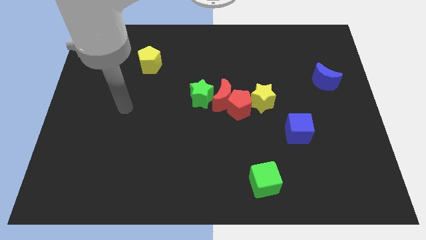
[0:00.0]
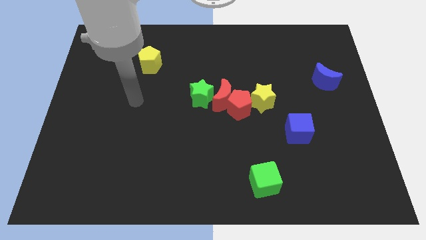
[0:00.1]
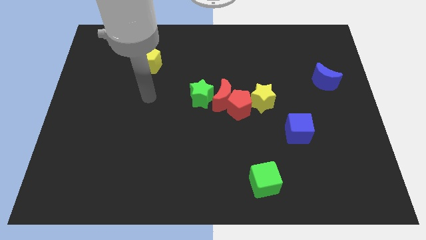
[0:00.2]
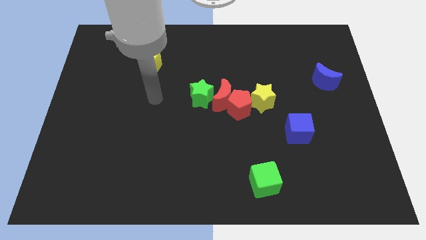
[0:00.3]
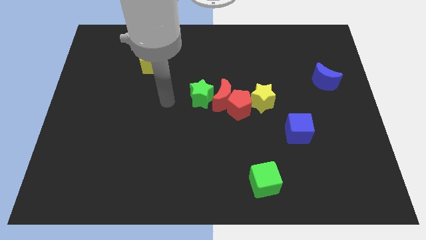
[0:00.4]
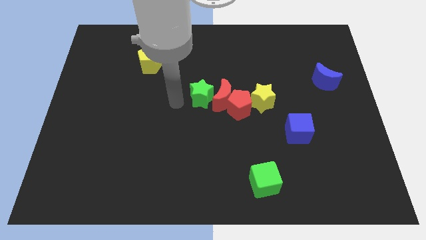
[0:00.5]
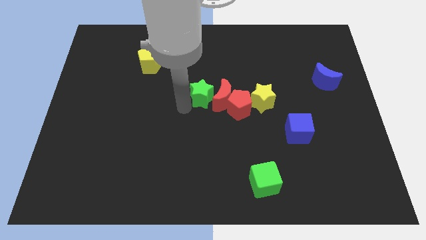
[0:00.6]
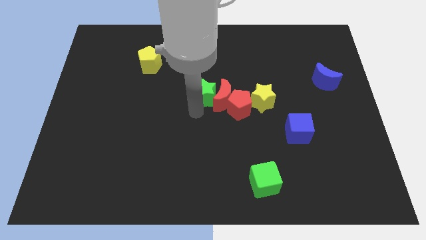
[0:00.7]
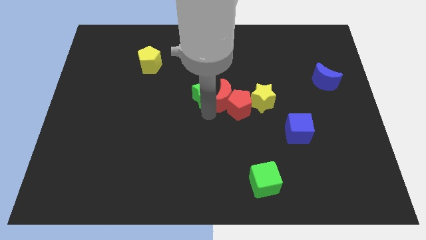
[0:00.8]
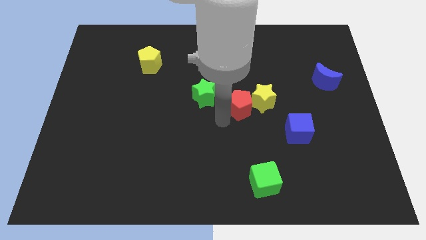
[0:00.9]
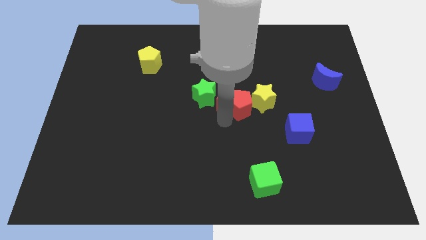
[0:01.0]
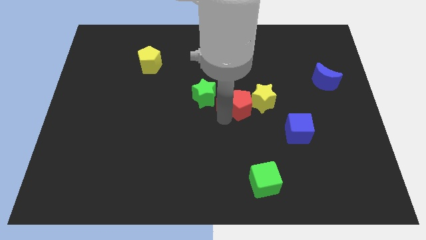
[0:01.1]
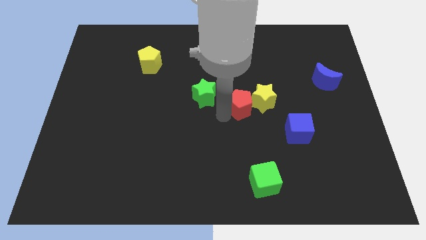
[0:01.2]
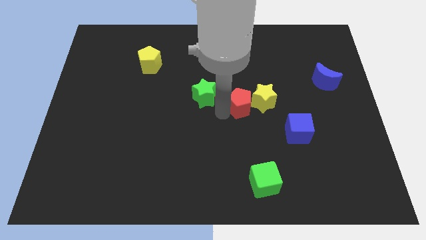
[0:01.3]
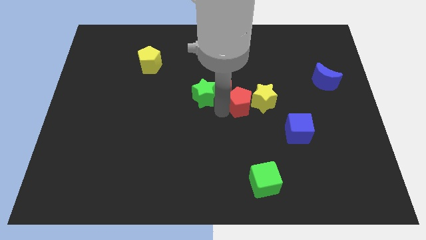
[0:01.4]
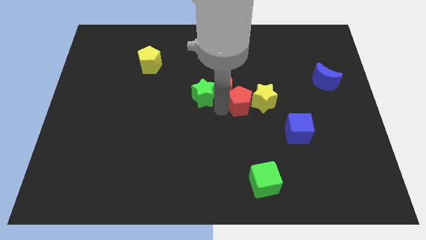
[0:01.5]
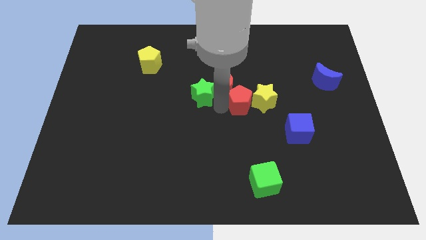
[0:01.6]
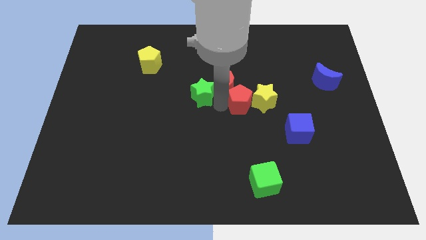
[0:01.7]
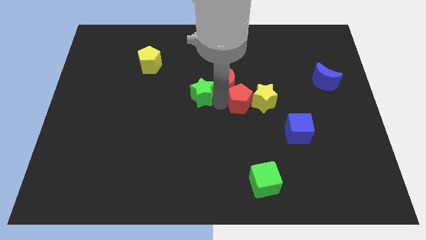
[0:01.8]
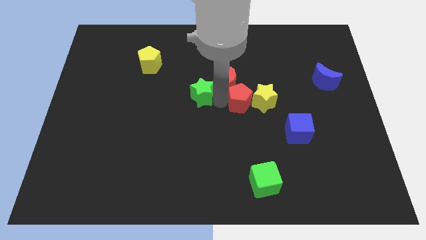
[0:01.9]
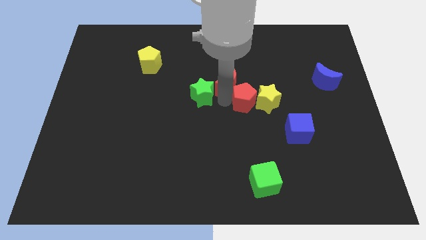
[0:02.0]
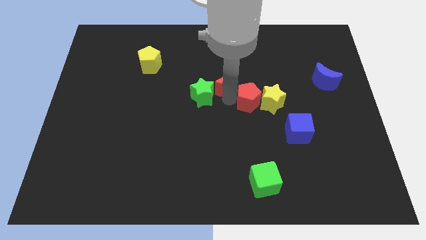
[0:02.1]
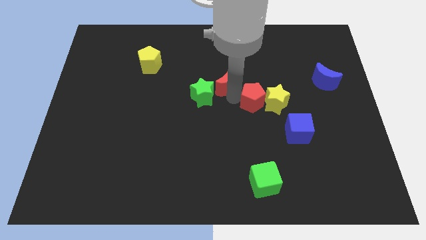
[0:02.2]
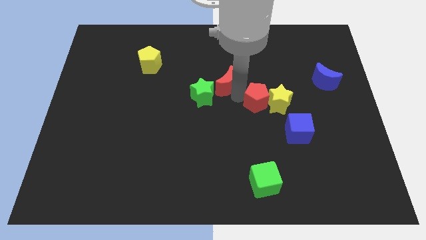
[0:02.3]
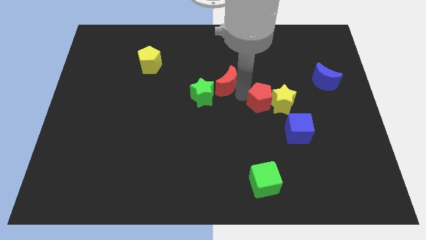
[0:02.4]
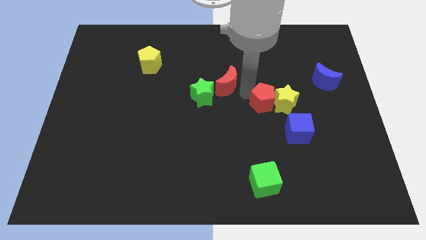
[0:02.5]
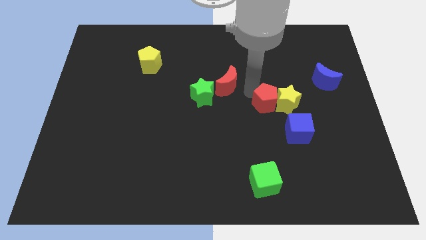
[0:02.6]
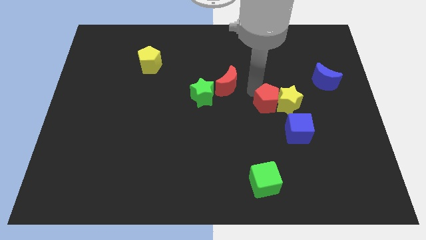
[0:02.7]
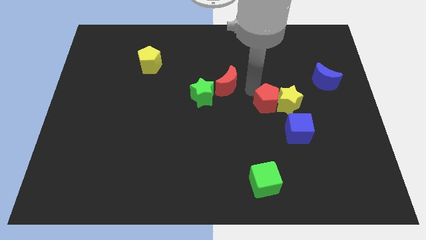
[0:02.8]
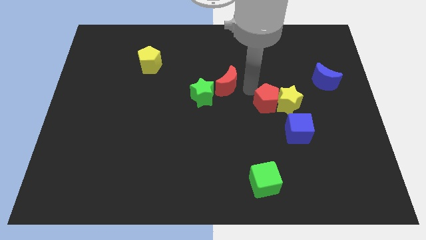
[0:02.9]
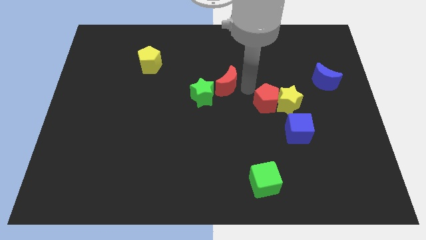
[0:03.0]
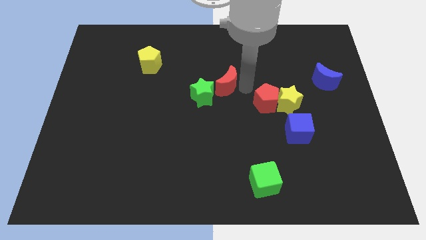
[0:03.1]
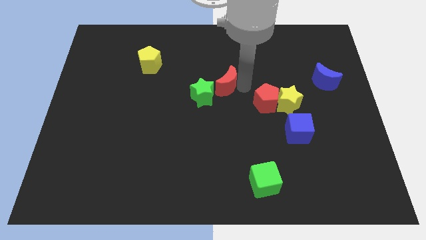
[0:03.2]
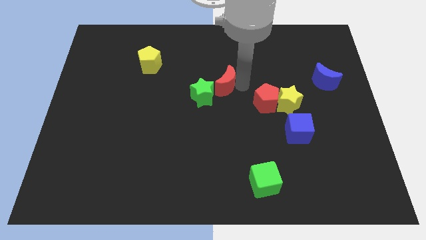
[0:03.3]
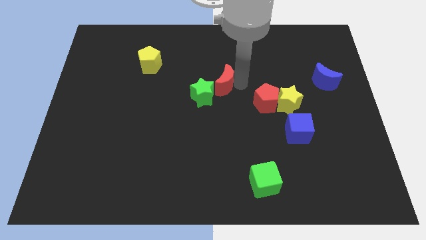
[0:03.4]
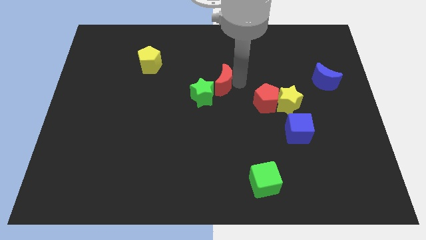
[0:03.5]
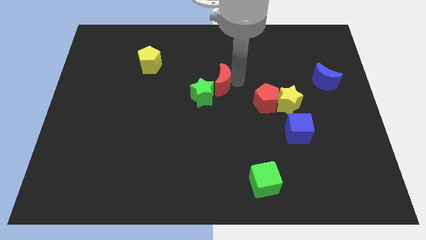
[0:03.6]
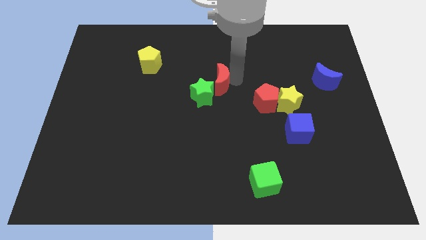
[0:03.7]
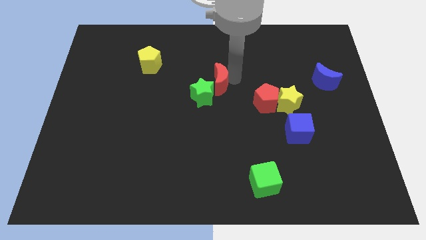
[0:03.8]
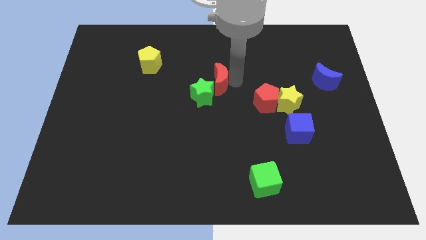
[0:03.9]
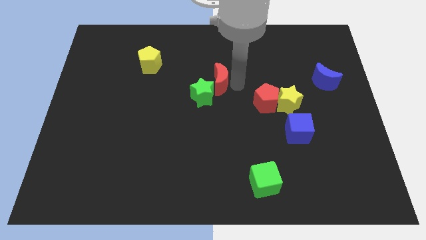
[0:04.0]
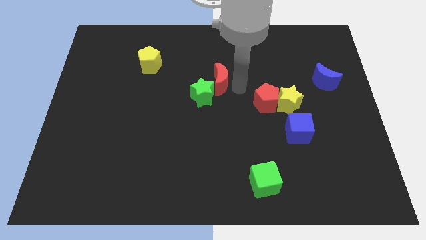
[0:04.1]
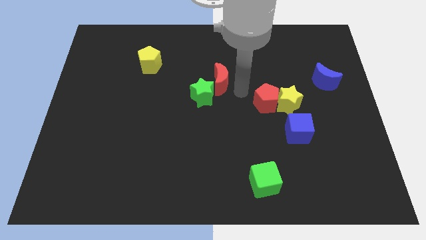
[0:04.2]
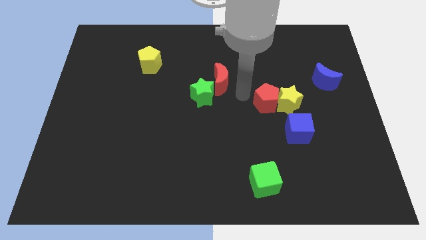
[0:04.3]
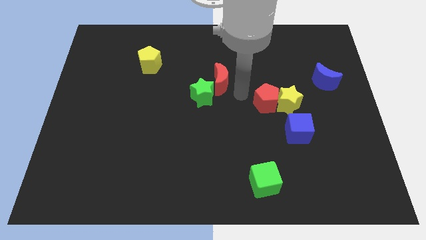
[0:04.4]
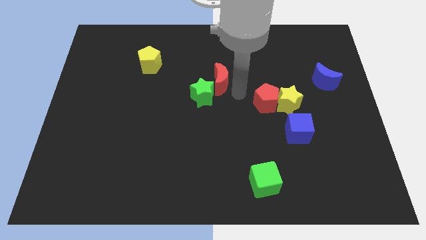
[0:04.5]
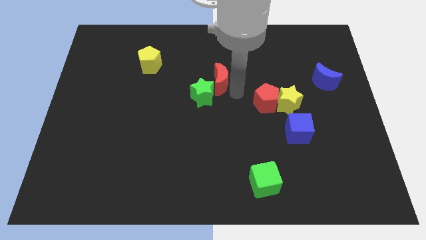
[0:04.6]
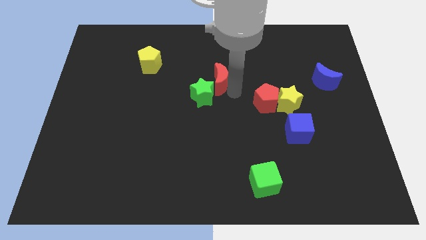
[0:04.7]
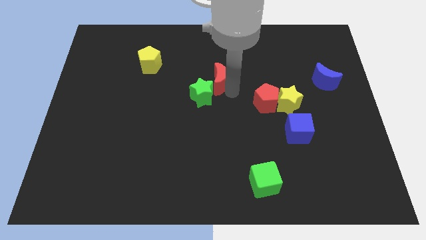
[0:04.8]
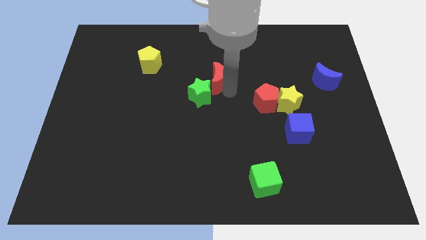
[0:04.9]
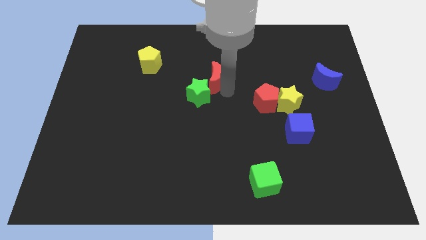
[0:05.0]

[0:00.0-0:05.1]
move the red moon away from the group of blocks

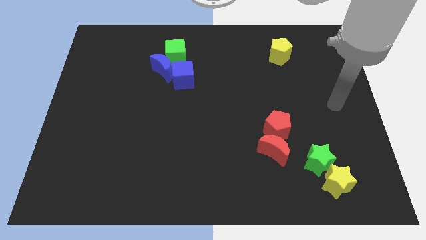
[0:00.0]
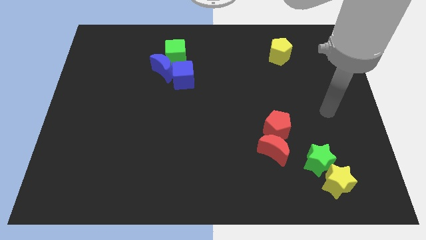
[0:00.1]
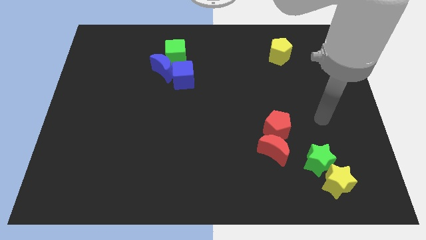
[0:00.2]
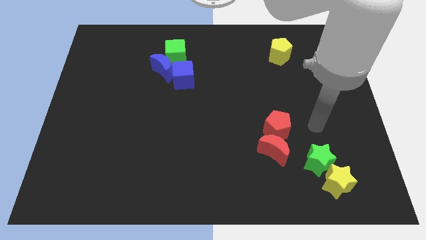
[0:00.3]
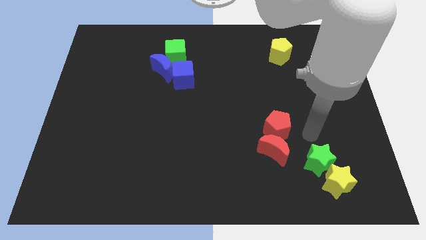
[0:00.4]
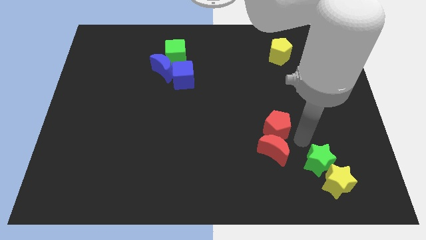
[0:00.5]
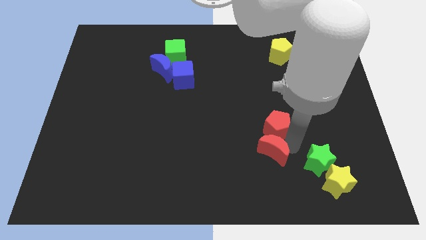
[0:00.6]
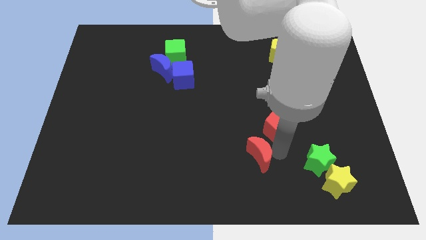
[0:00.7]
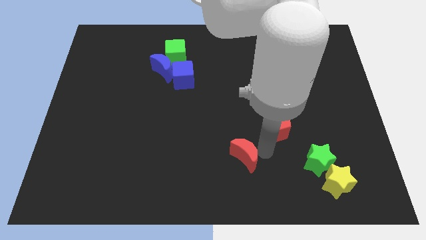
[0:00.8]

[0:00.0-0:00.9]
move the red pentagon away from the red moon

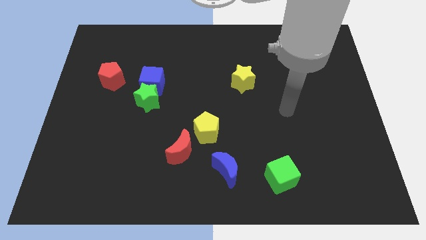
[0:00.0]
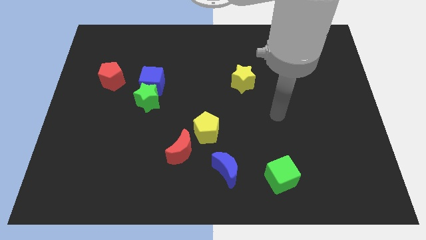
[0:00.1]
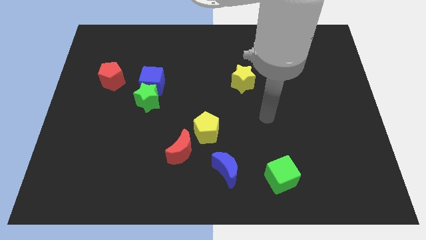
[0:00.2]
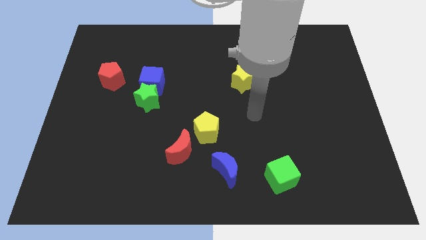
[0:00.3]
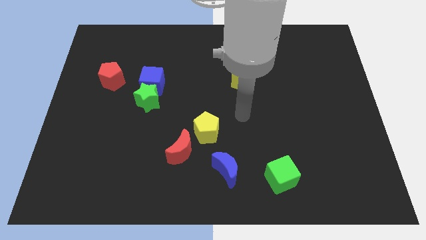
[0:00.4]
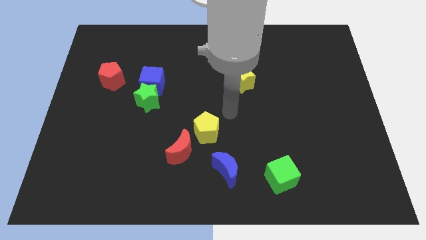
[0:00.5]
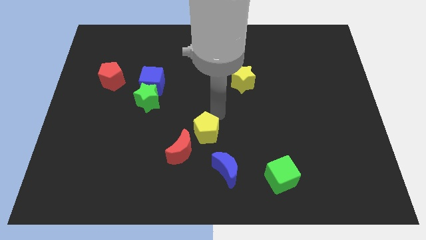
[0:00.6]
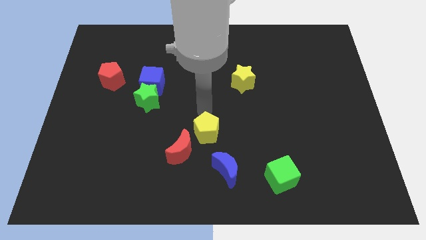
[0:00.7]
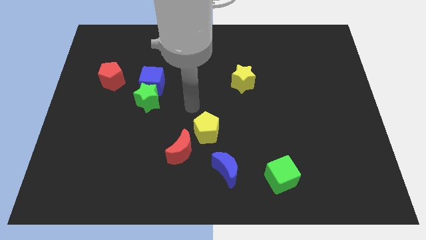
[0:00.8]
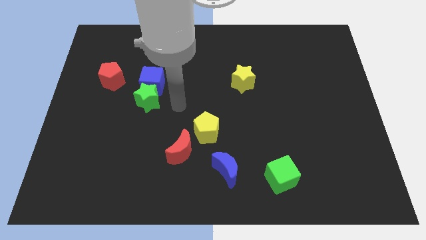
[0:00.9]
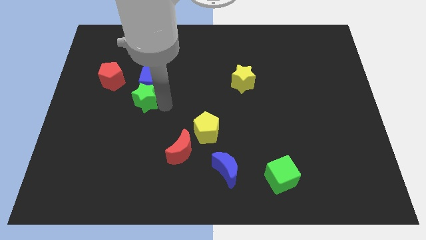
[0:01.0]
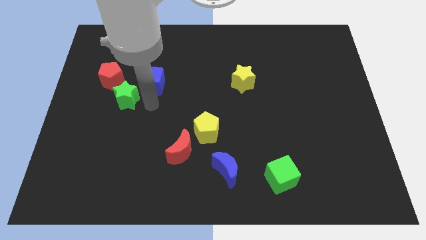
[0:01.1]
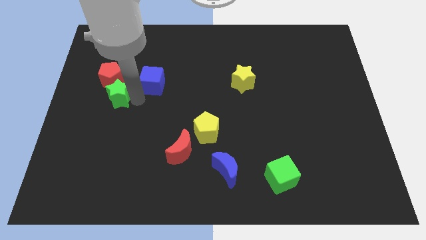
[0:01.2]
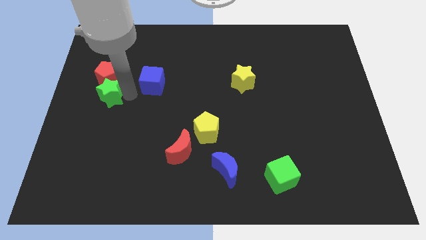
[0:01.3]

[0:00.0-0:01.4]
move the blue cube away from the green star

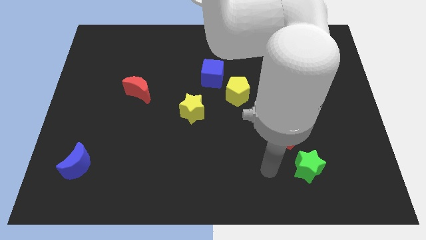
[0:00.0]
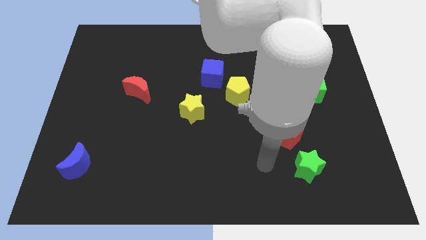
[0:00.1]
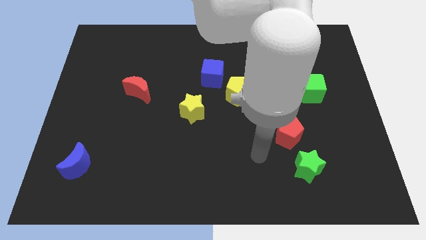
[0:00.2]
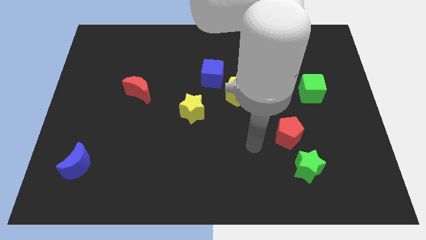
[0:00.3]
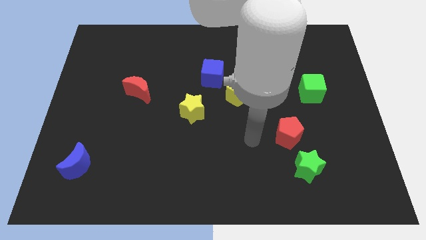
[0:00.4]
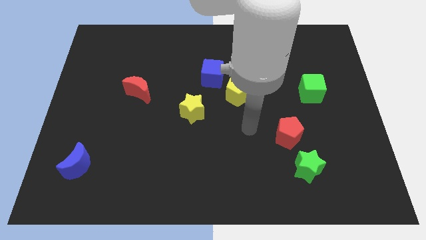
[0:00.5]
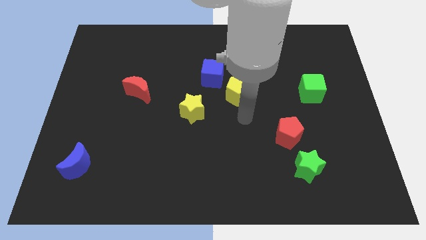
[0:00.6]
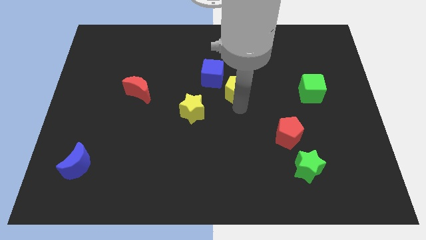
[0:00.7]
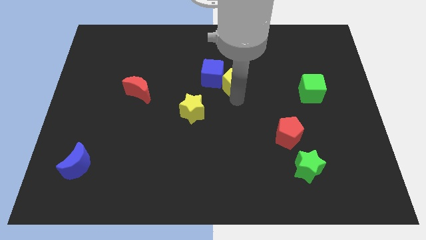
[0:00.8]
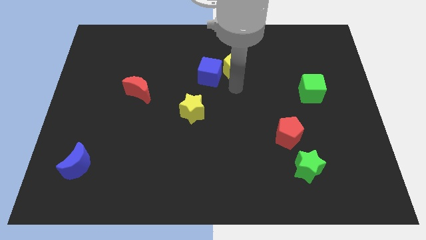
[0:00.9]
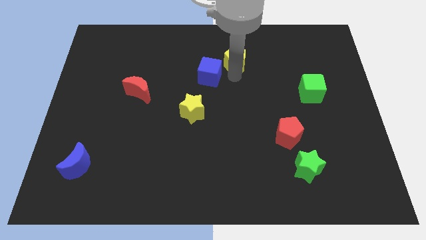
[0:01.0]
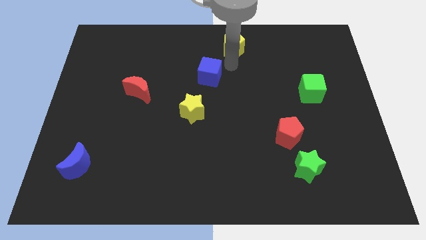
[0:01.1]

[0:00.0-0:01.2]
move the blue cube away from the yellow pentagon

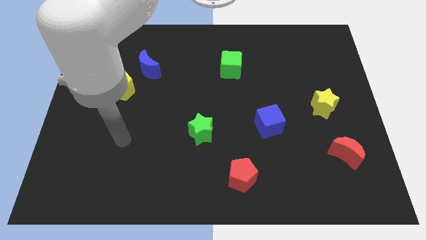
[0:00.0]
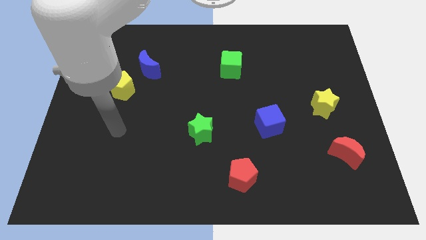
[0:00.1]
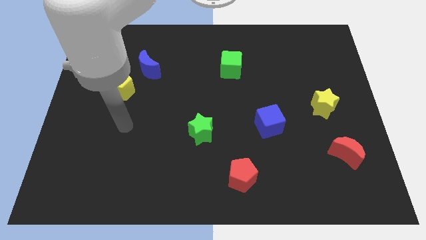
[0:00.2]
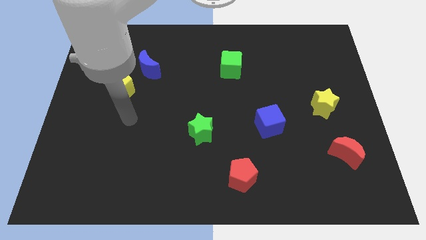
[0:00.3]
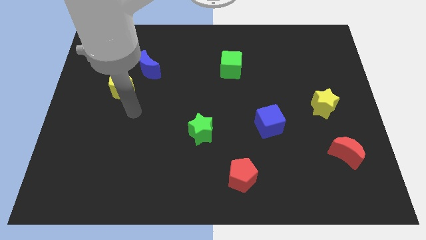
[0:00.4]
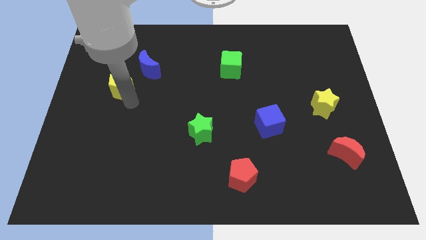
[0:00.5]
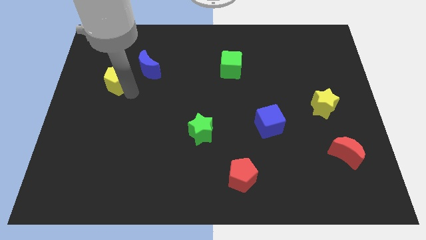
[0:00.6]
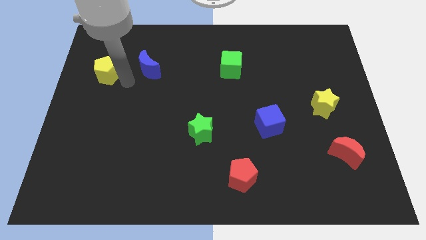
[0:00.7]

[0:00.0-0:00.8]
pull the blue moon apart from the yellow pentagon
